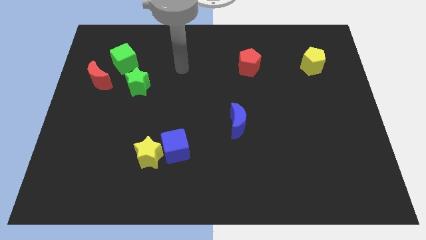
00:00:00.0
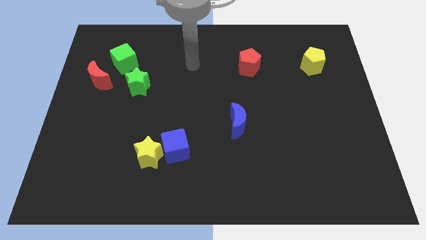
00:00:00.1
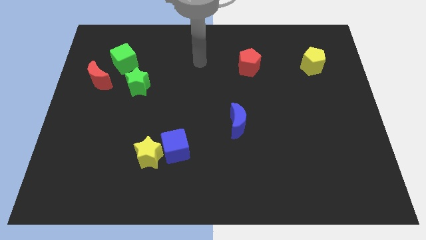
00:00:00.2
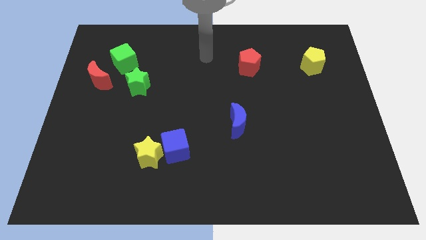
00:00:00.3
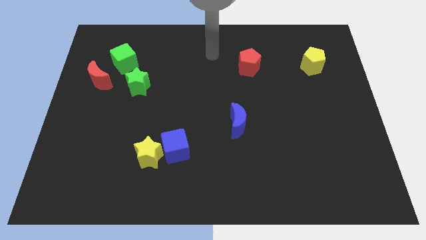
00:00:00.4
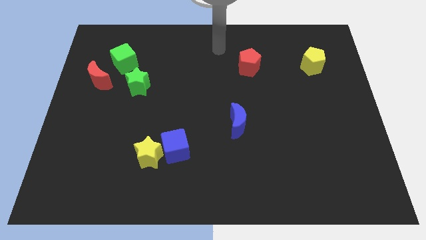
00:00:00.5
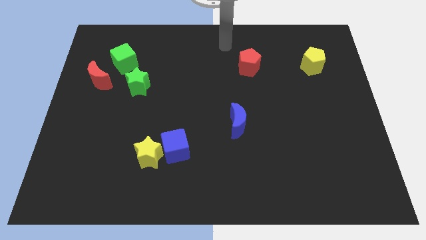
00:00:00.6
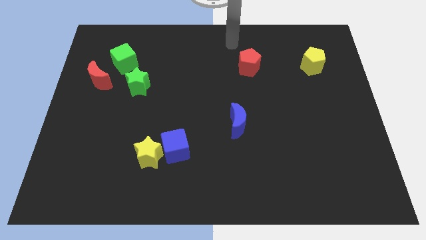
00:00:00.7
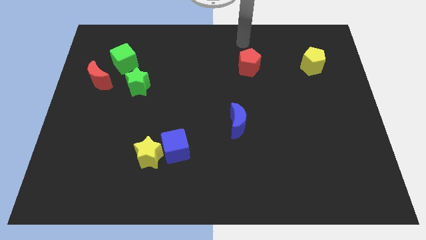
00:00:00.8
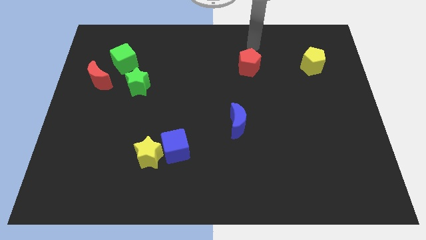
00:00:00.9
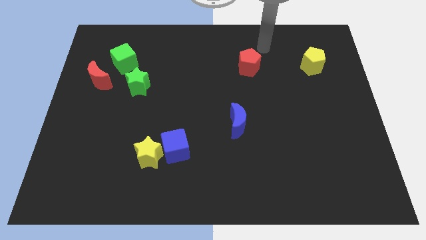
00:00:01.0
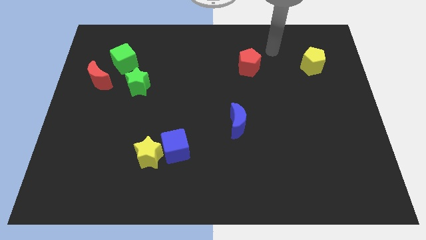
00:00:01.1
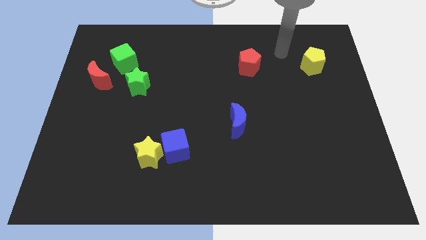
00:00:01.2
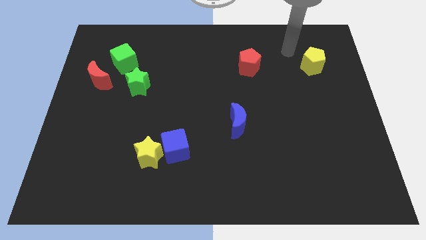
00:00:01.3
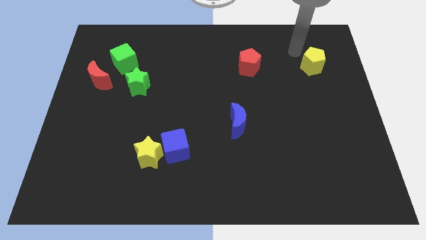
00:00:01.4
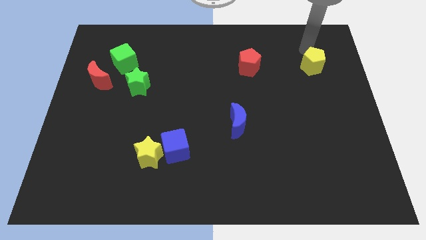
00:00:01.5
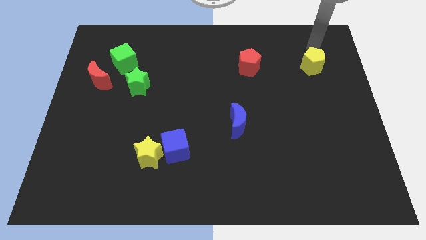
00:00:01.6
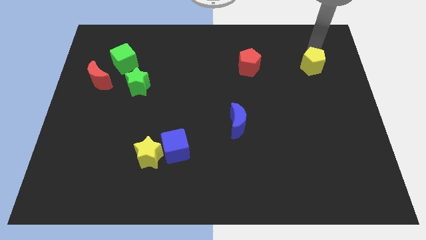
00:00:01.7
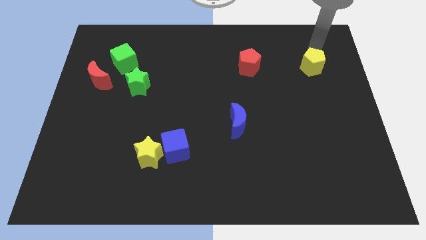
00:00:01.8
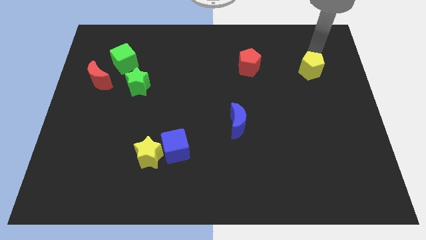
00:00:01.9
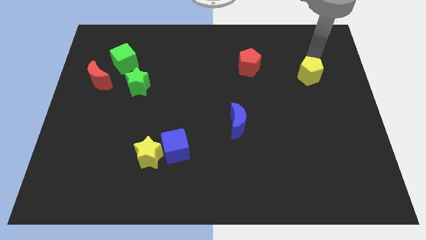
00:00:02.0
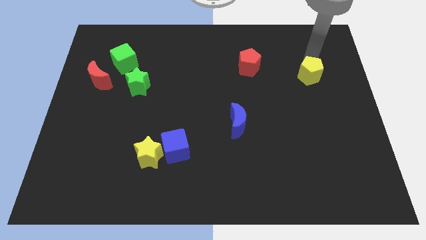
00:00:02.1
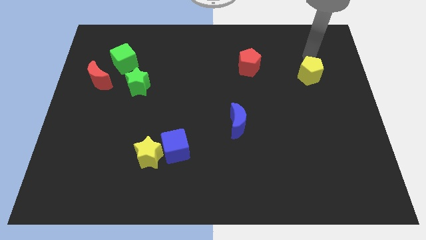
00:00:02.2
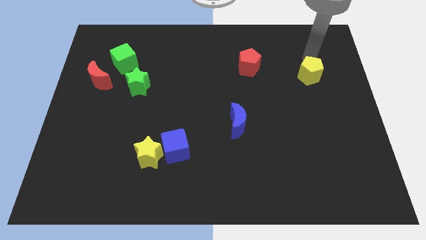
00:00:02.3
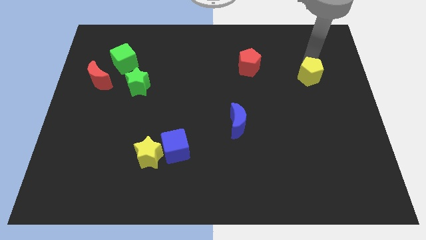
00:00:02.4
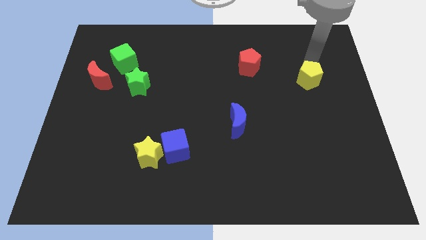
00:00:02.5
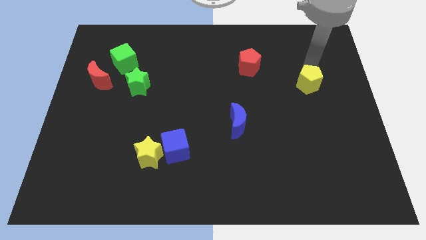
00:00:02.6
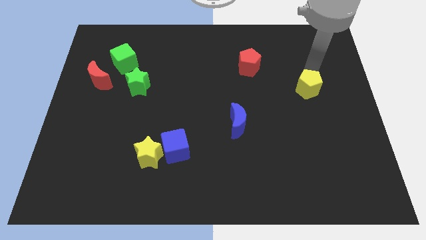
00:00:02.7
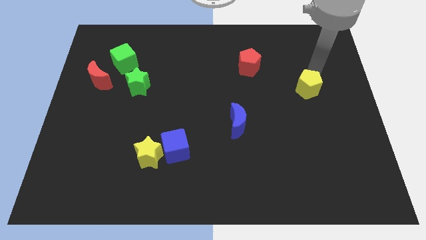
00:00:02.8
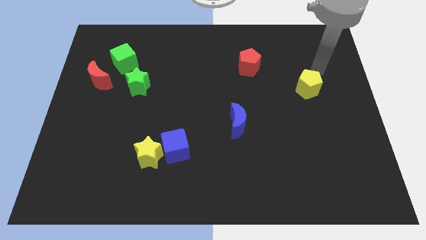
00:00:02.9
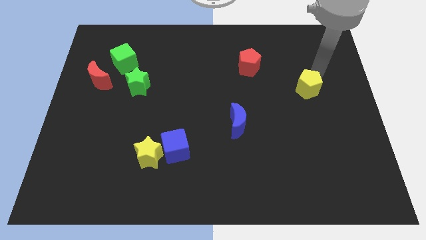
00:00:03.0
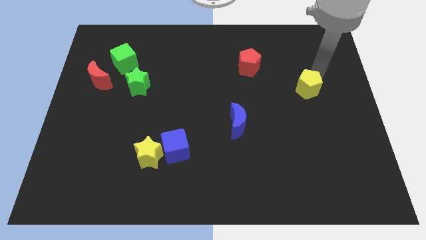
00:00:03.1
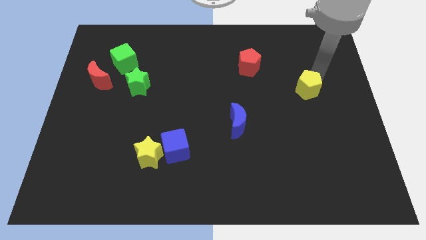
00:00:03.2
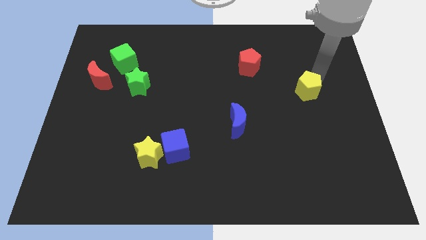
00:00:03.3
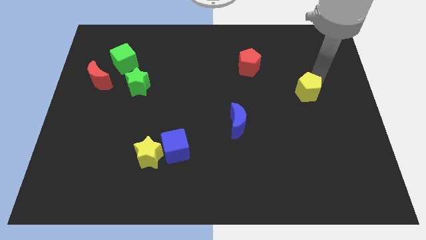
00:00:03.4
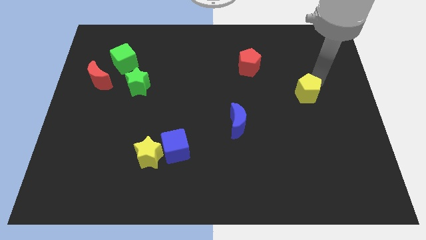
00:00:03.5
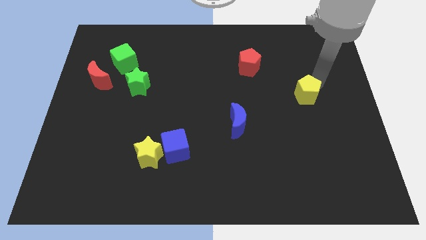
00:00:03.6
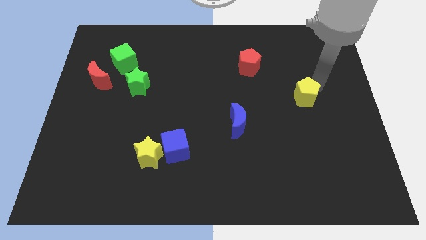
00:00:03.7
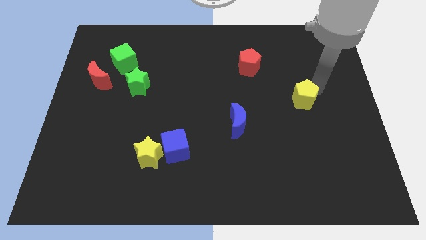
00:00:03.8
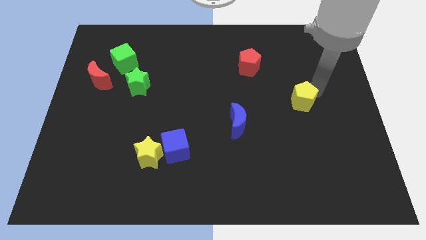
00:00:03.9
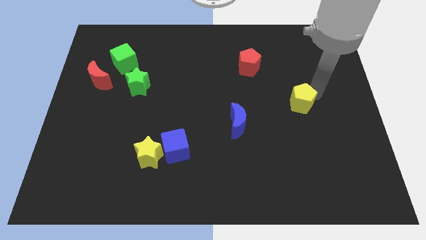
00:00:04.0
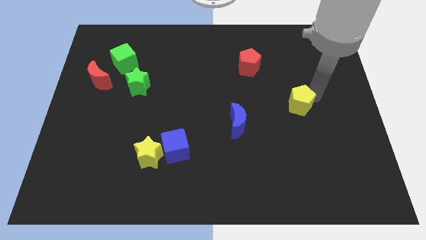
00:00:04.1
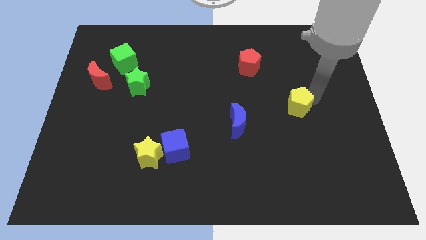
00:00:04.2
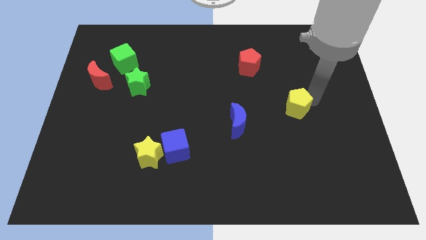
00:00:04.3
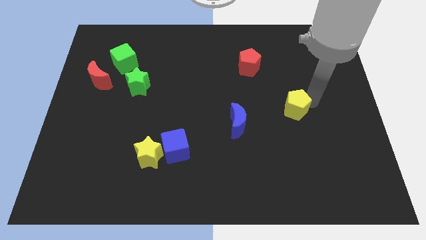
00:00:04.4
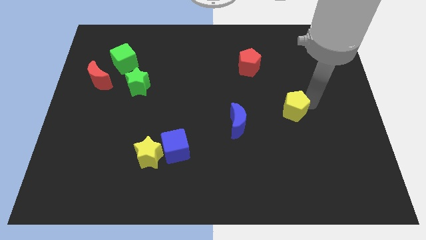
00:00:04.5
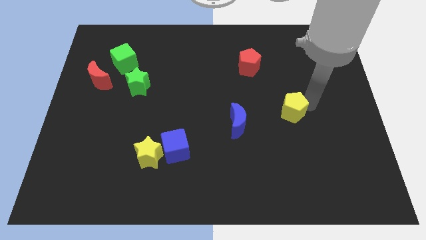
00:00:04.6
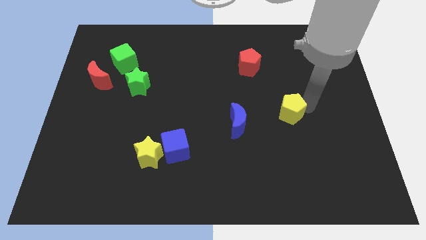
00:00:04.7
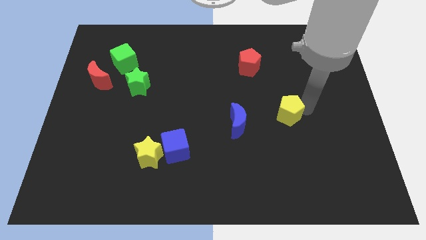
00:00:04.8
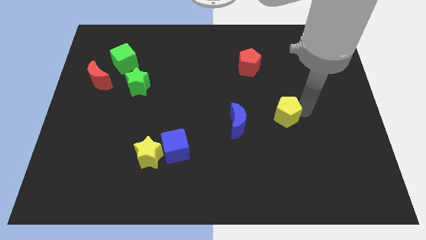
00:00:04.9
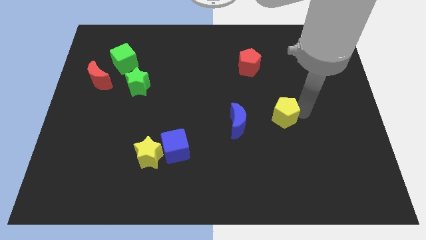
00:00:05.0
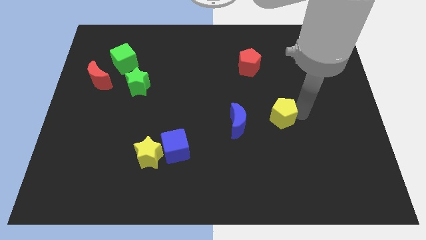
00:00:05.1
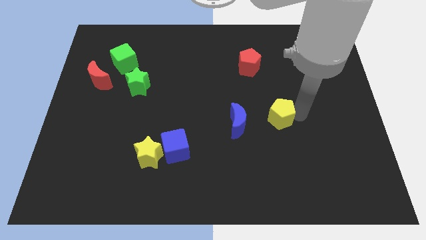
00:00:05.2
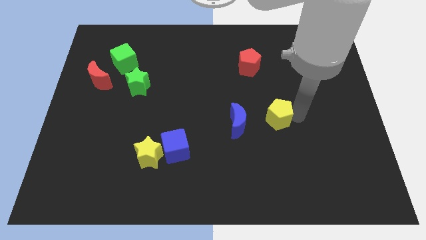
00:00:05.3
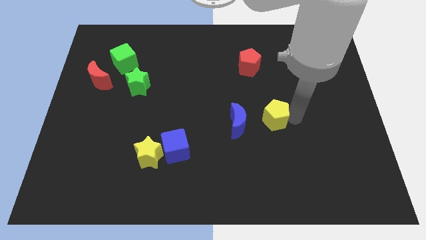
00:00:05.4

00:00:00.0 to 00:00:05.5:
push the yellow pentagon diagonally downwards and to the left

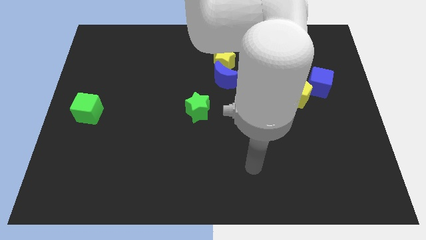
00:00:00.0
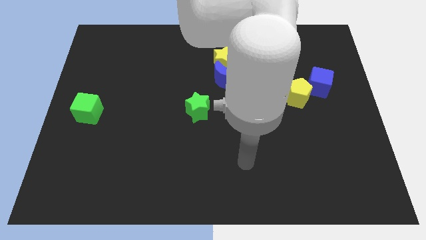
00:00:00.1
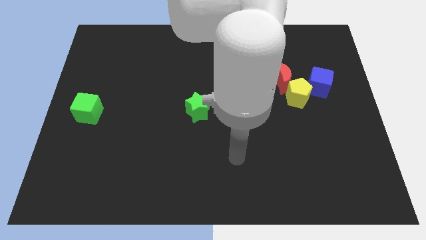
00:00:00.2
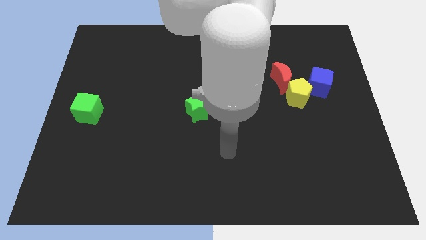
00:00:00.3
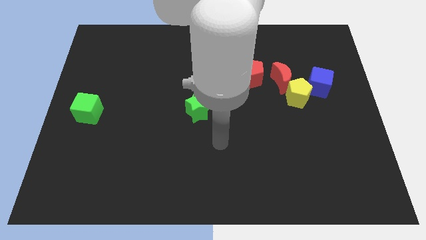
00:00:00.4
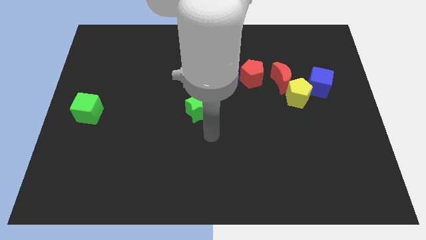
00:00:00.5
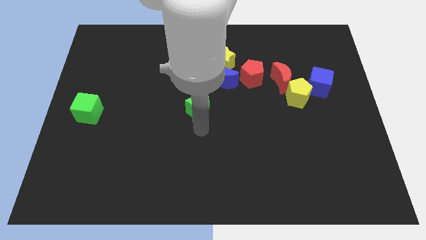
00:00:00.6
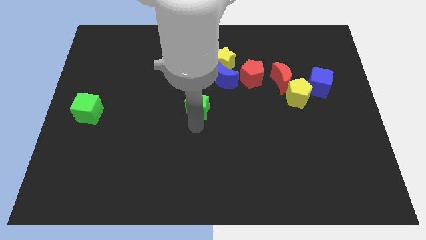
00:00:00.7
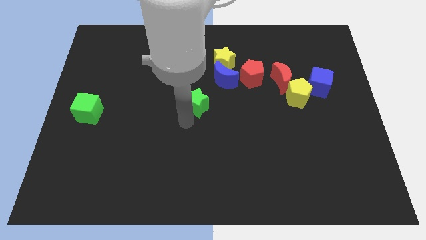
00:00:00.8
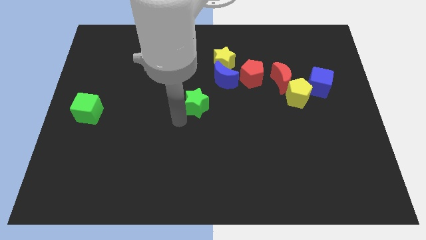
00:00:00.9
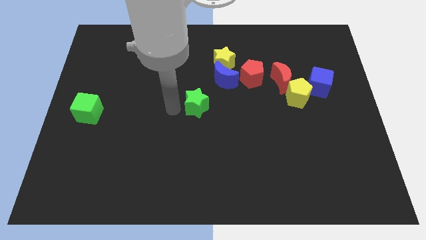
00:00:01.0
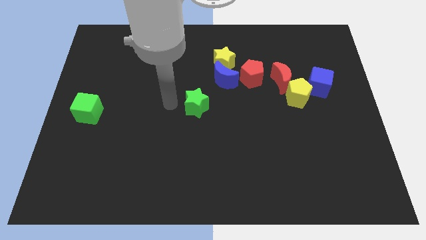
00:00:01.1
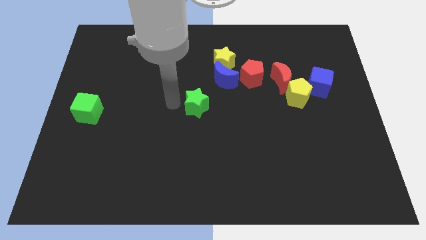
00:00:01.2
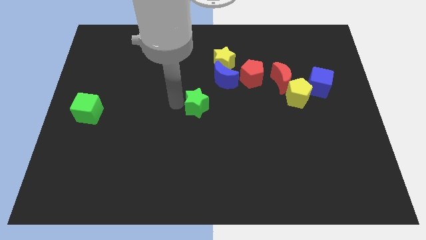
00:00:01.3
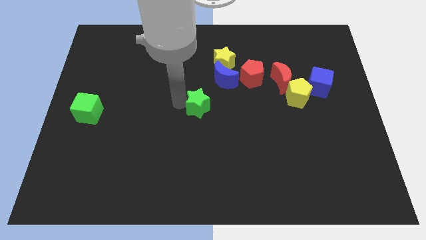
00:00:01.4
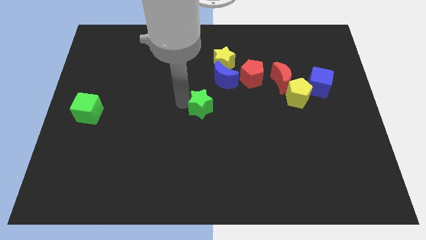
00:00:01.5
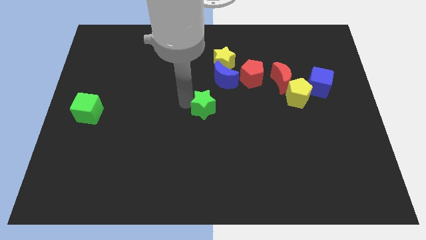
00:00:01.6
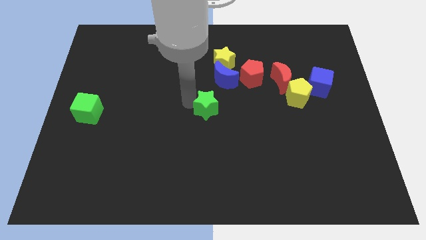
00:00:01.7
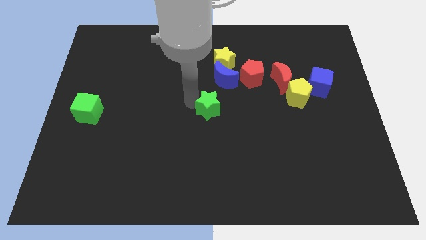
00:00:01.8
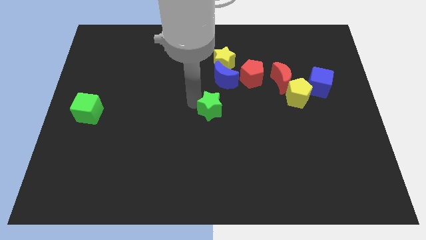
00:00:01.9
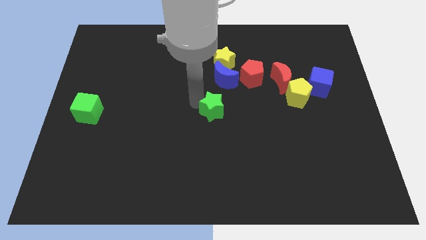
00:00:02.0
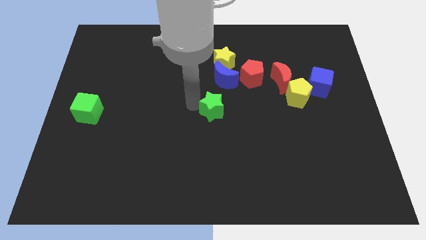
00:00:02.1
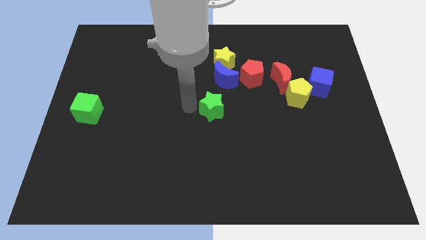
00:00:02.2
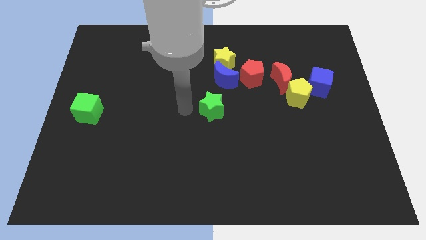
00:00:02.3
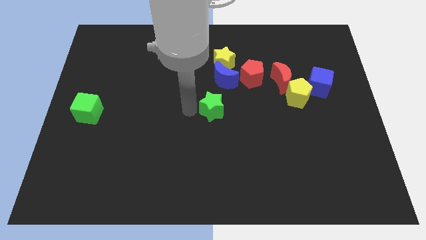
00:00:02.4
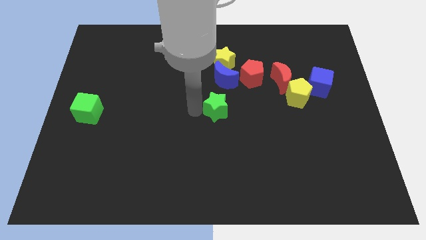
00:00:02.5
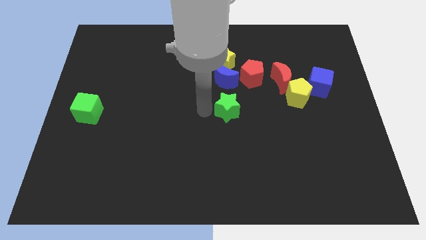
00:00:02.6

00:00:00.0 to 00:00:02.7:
slide the green star to the right a bit
